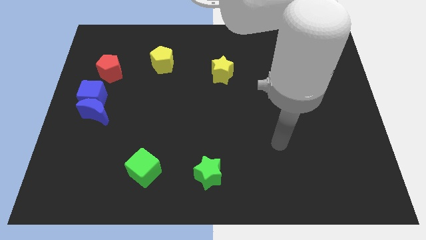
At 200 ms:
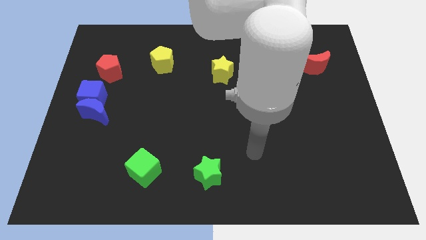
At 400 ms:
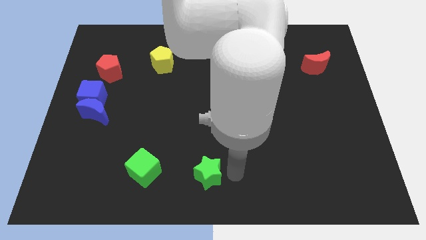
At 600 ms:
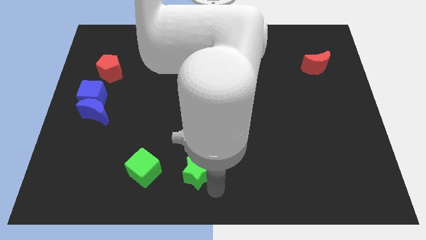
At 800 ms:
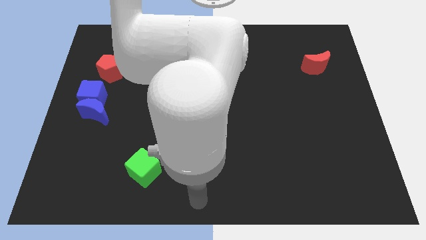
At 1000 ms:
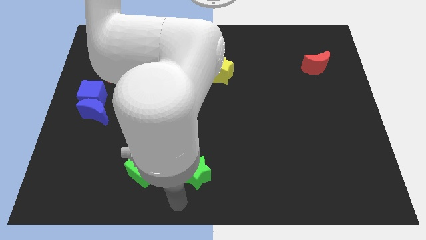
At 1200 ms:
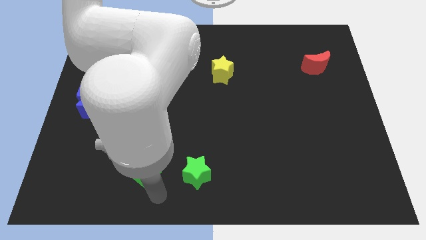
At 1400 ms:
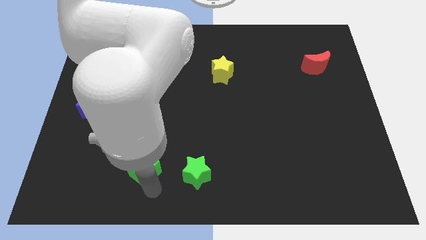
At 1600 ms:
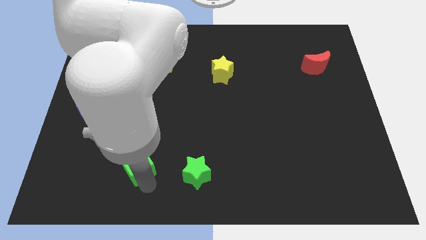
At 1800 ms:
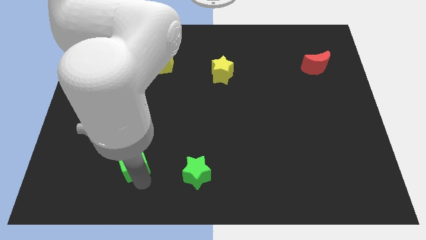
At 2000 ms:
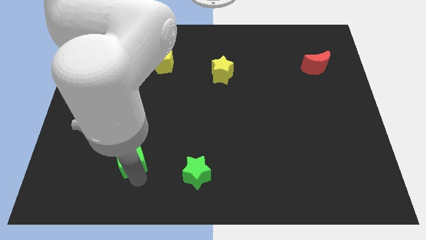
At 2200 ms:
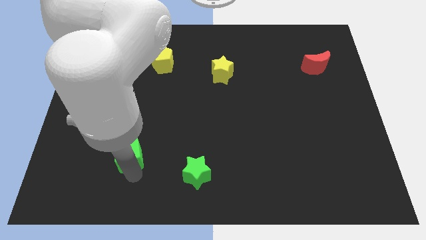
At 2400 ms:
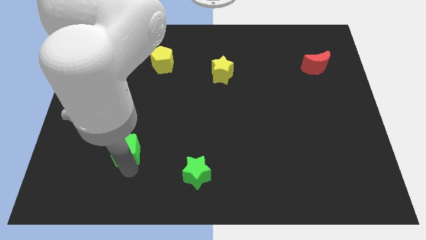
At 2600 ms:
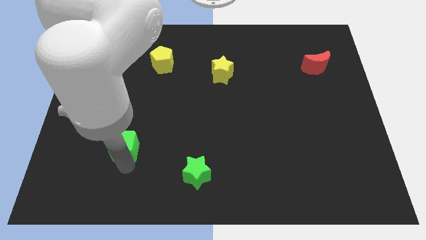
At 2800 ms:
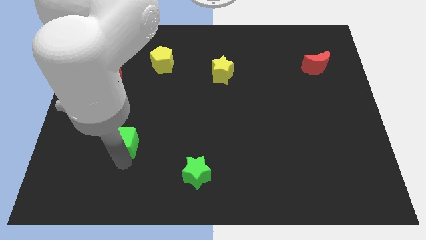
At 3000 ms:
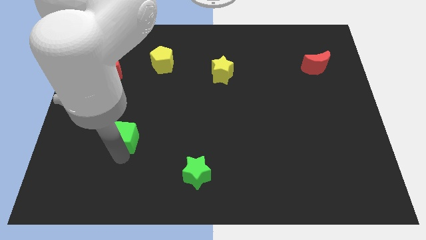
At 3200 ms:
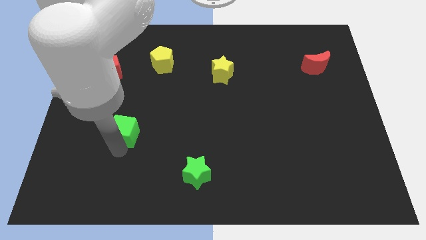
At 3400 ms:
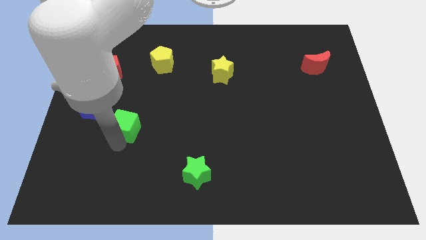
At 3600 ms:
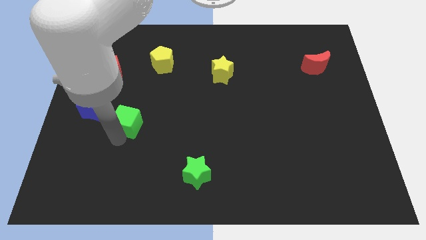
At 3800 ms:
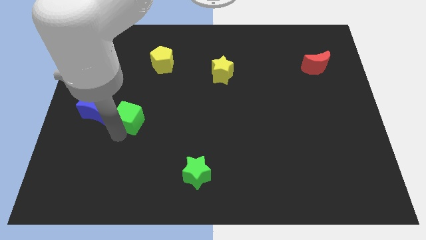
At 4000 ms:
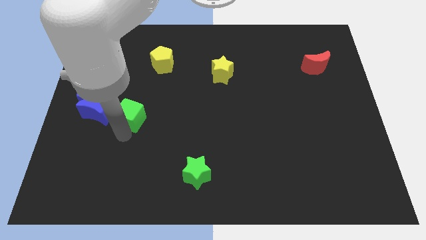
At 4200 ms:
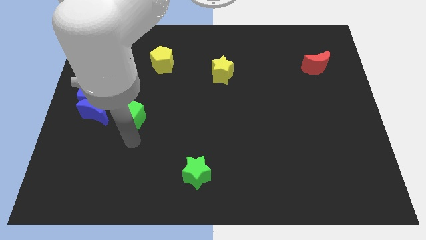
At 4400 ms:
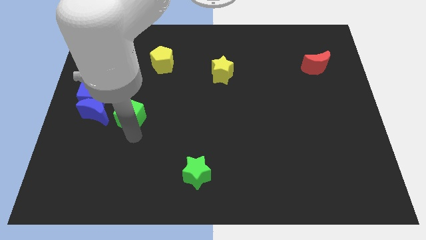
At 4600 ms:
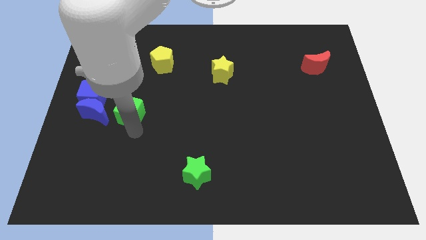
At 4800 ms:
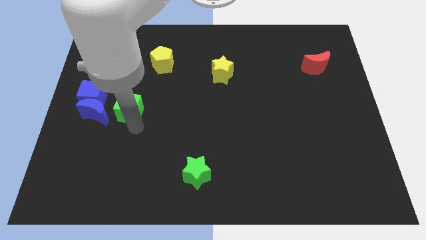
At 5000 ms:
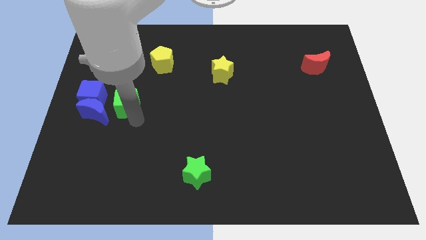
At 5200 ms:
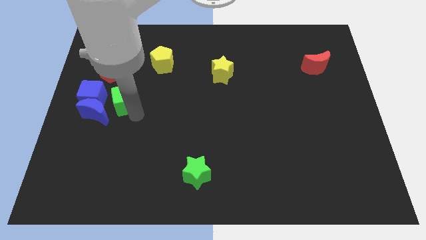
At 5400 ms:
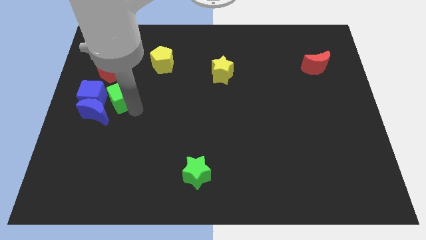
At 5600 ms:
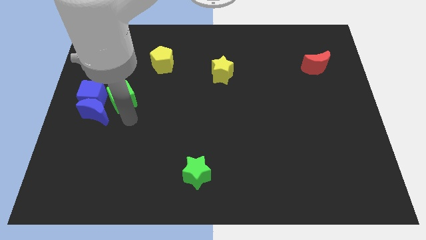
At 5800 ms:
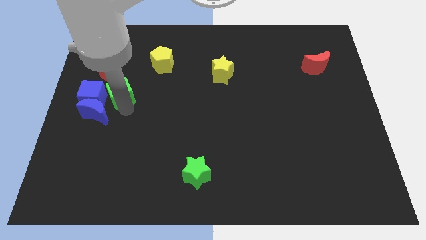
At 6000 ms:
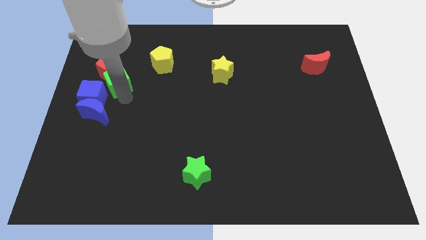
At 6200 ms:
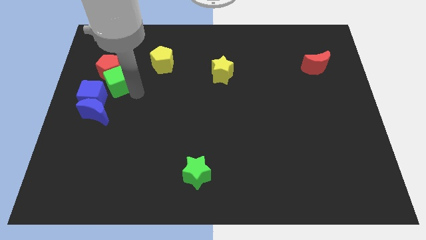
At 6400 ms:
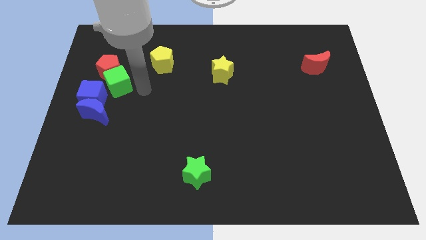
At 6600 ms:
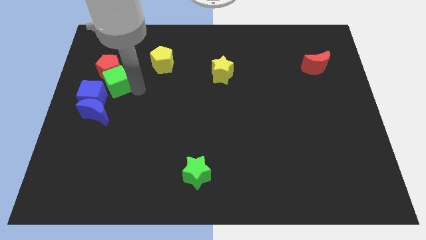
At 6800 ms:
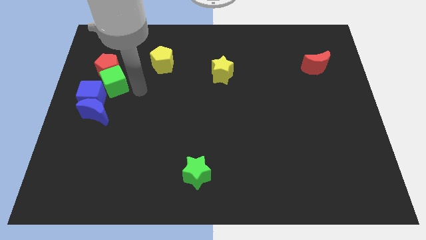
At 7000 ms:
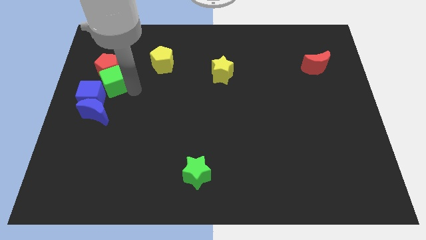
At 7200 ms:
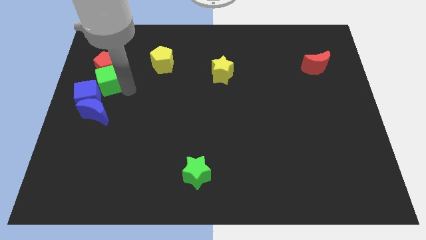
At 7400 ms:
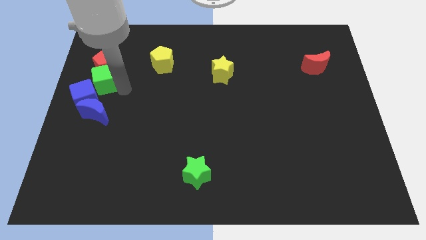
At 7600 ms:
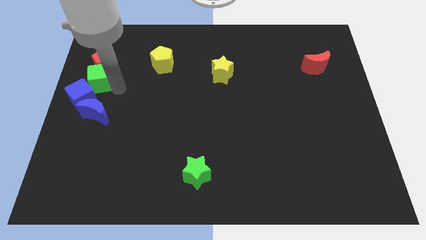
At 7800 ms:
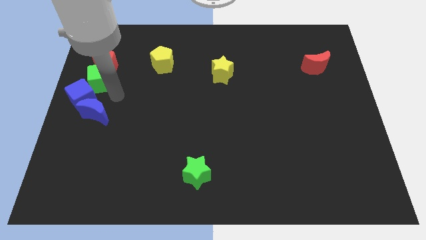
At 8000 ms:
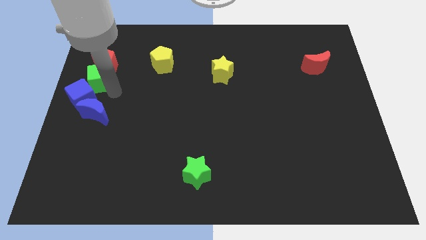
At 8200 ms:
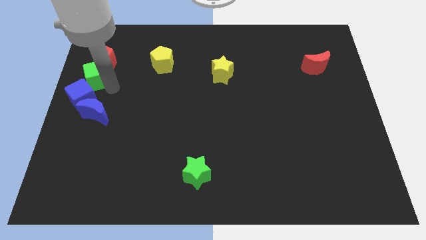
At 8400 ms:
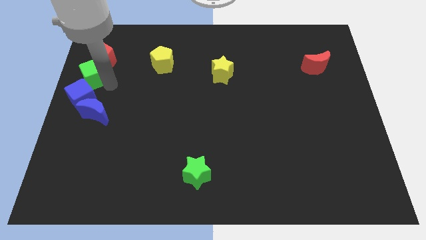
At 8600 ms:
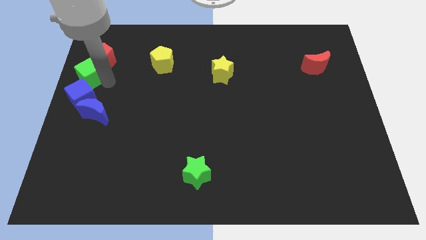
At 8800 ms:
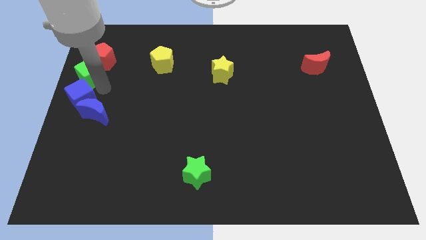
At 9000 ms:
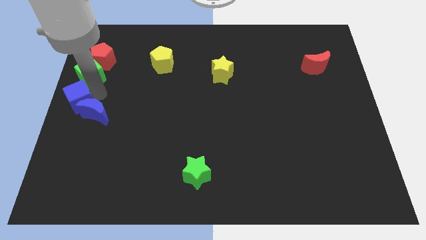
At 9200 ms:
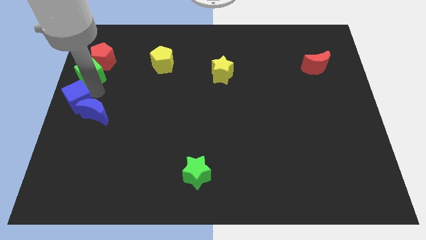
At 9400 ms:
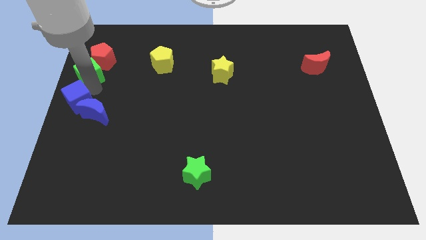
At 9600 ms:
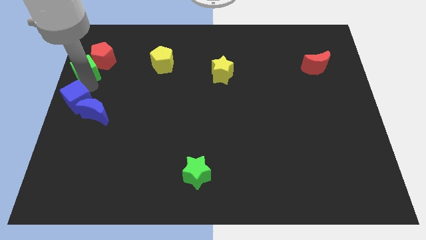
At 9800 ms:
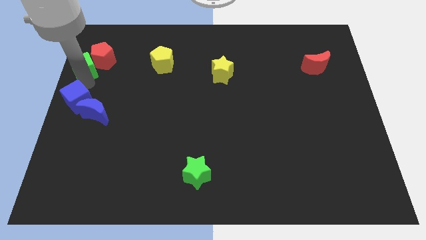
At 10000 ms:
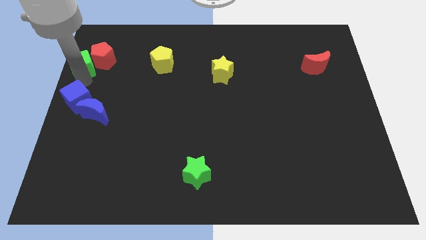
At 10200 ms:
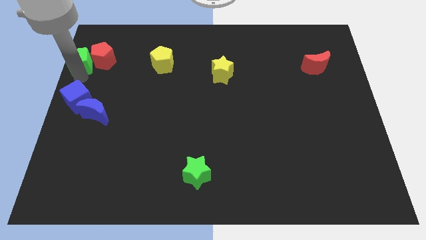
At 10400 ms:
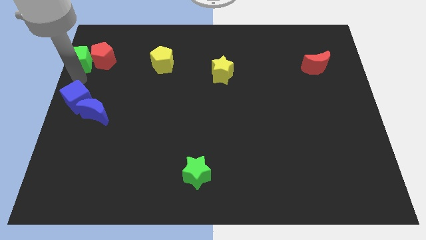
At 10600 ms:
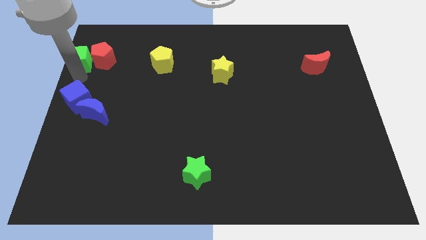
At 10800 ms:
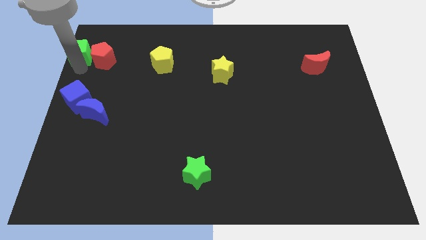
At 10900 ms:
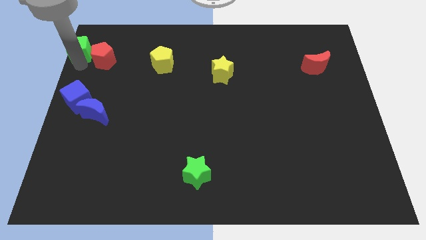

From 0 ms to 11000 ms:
slide the green cube to the top left
